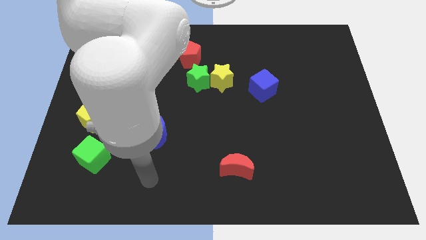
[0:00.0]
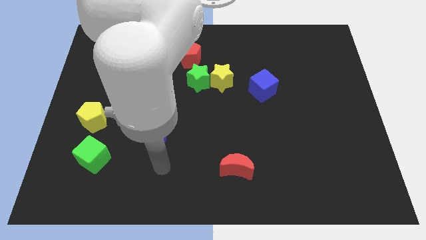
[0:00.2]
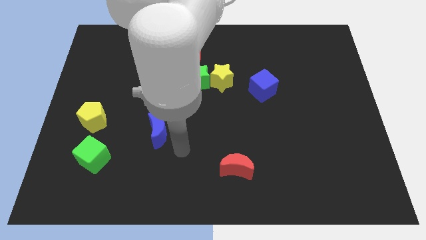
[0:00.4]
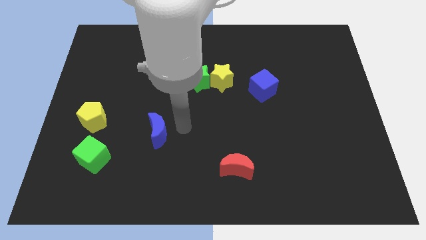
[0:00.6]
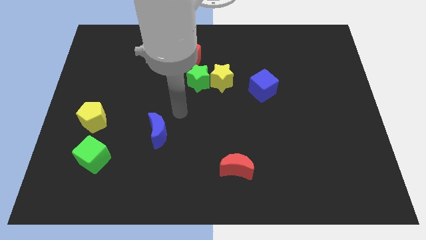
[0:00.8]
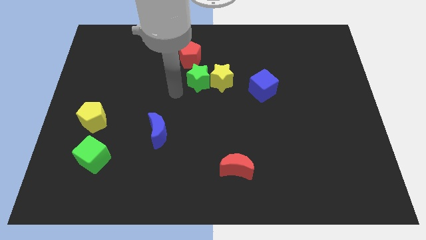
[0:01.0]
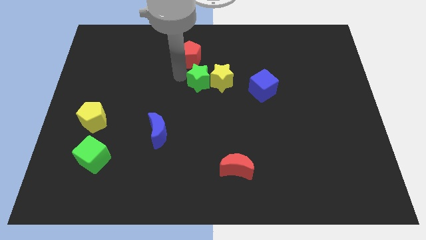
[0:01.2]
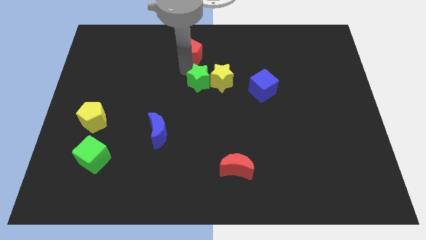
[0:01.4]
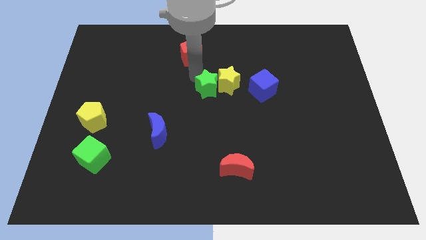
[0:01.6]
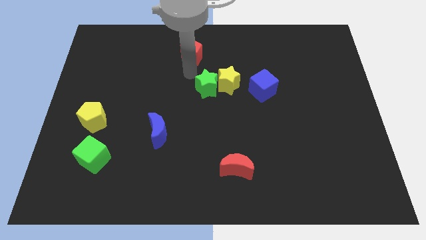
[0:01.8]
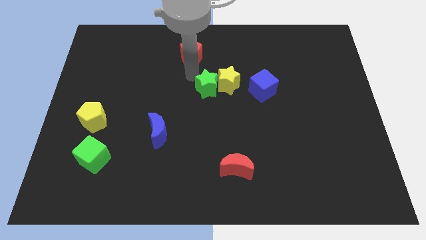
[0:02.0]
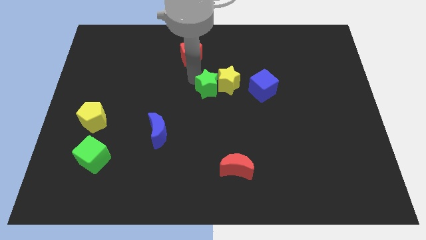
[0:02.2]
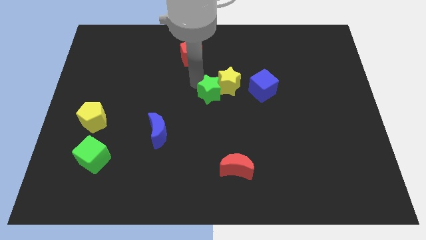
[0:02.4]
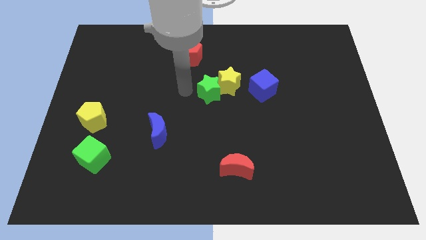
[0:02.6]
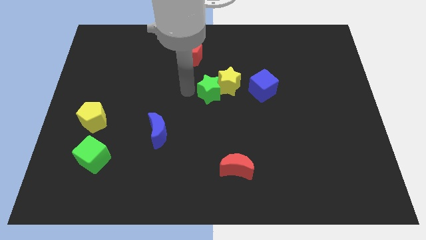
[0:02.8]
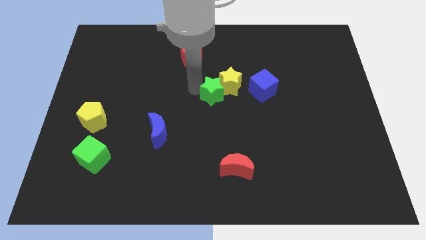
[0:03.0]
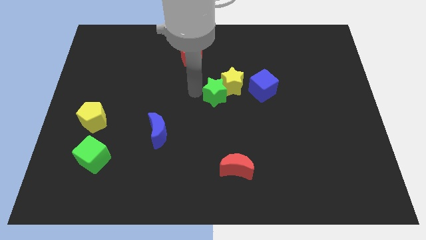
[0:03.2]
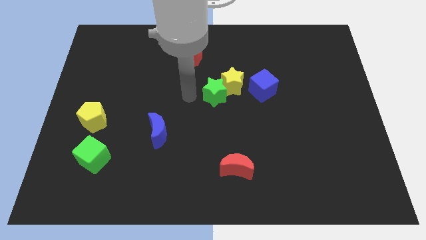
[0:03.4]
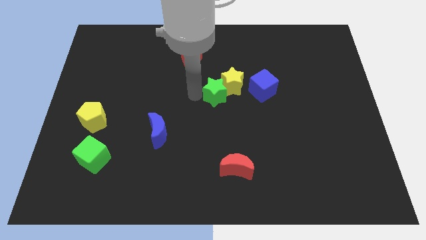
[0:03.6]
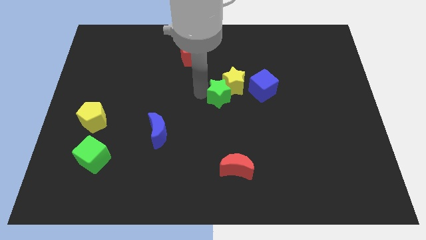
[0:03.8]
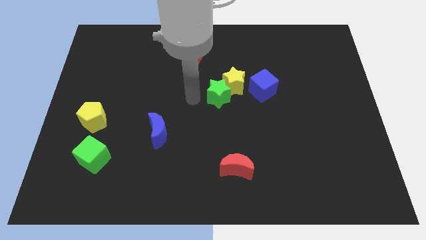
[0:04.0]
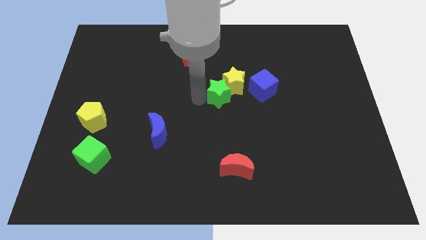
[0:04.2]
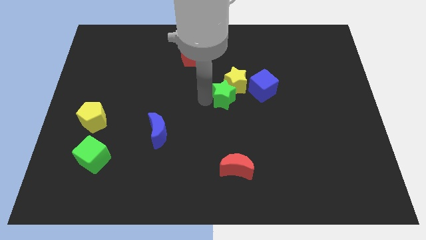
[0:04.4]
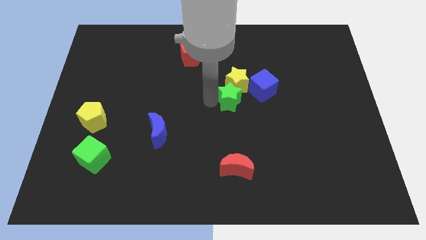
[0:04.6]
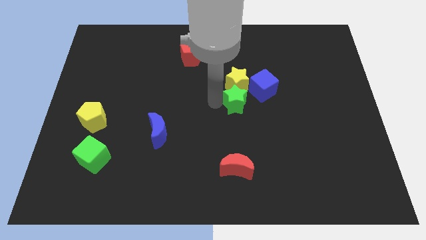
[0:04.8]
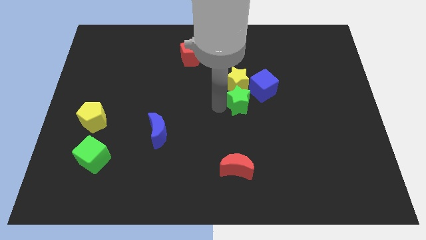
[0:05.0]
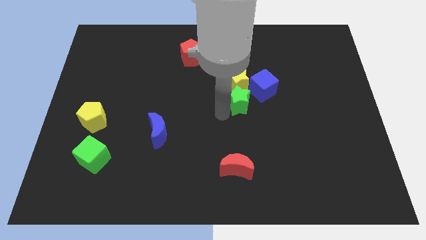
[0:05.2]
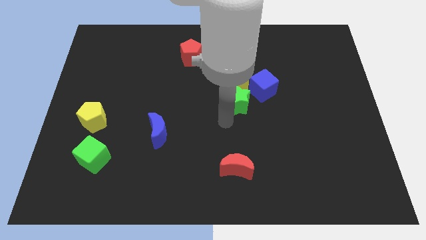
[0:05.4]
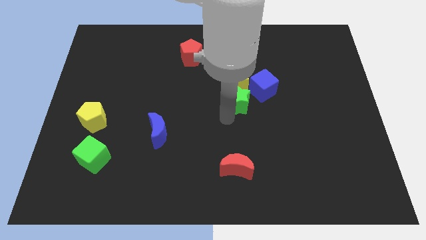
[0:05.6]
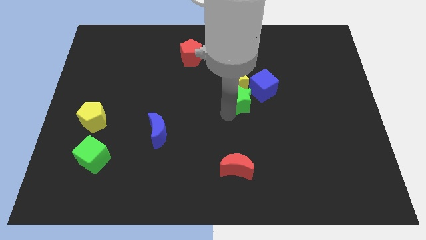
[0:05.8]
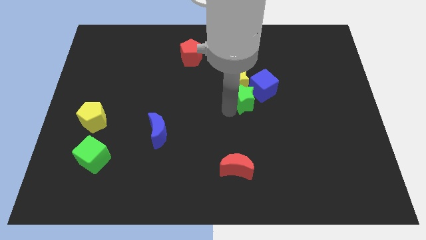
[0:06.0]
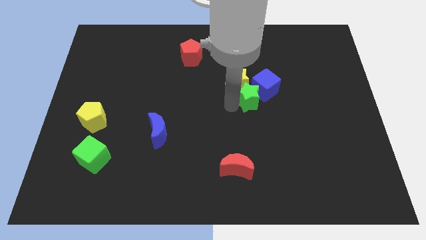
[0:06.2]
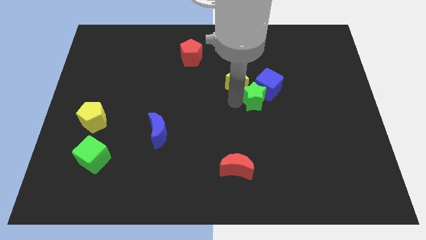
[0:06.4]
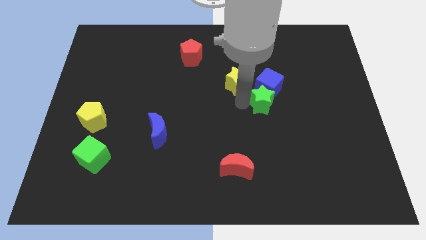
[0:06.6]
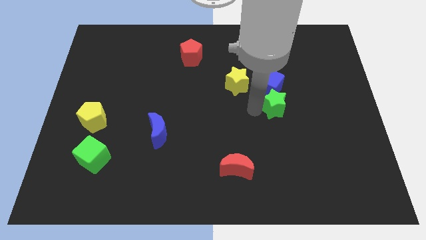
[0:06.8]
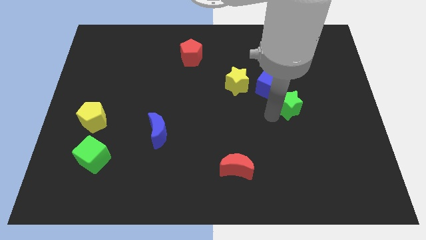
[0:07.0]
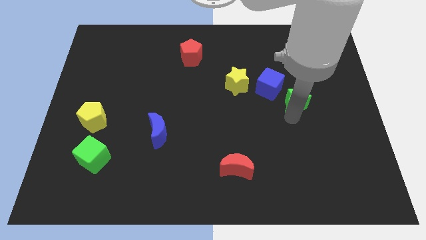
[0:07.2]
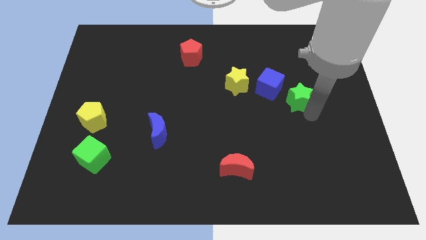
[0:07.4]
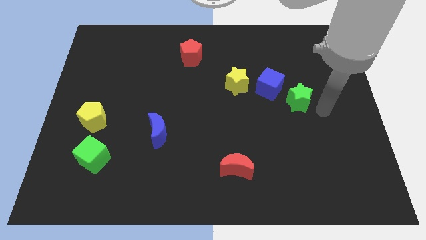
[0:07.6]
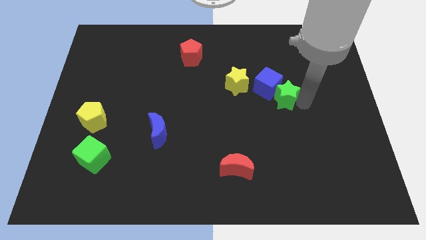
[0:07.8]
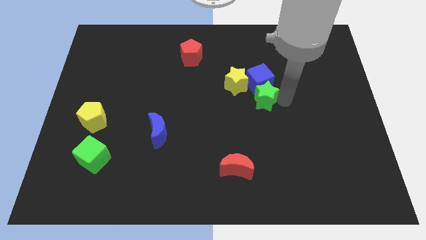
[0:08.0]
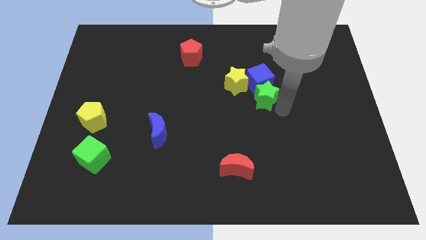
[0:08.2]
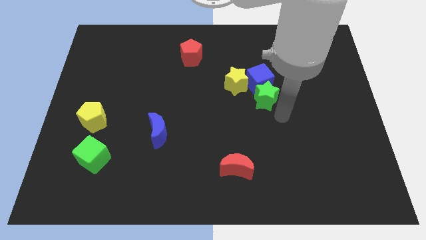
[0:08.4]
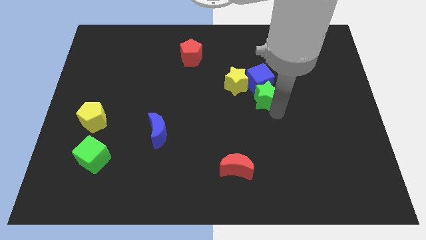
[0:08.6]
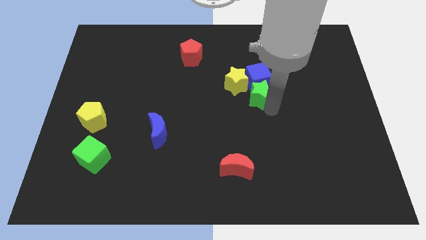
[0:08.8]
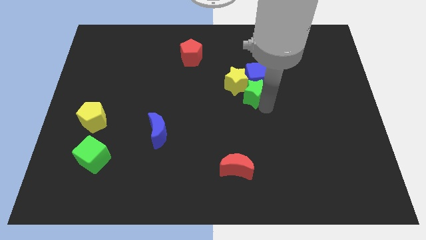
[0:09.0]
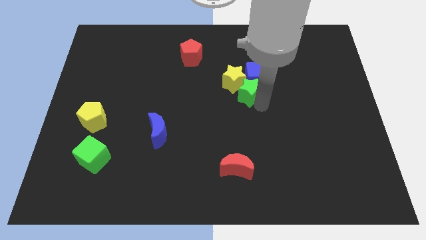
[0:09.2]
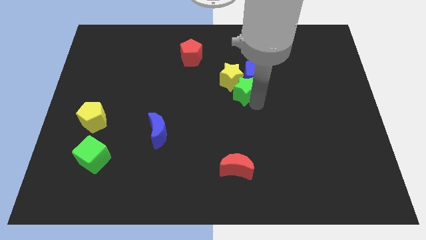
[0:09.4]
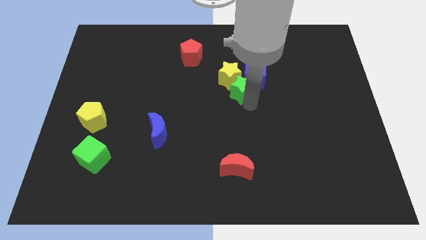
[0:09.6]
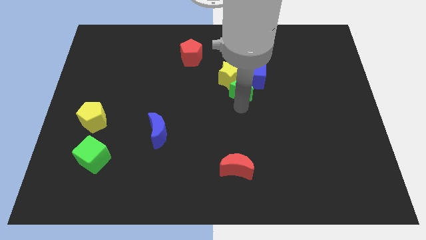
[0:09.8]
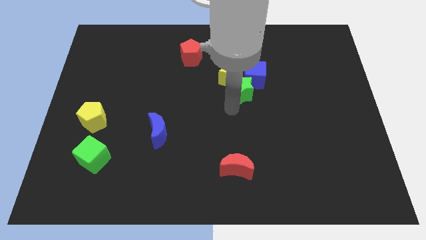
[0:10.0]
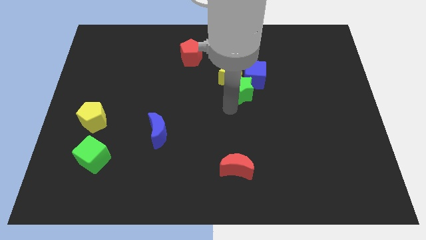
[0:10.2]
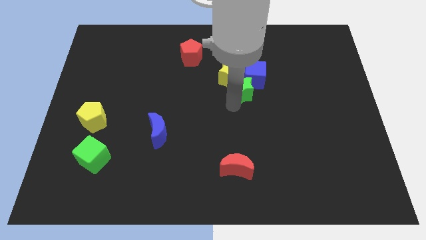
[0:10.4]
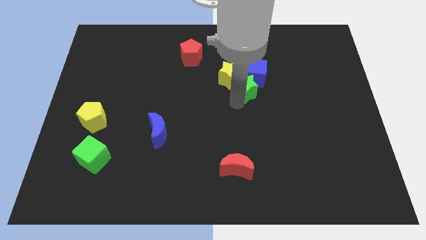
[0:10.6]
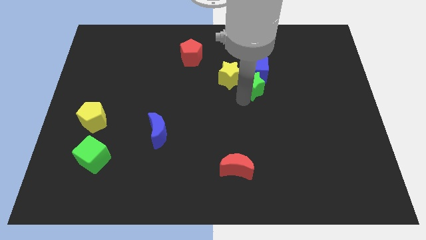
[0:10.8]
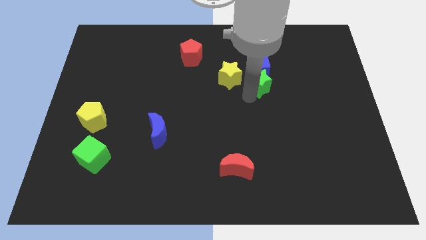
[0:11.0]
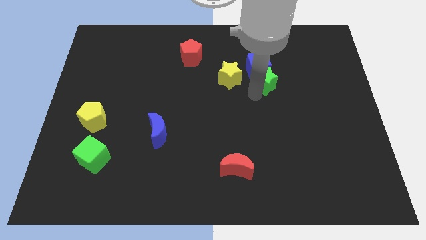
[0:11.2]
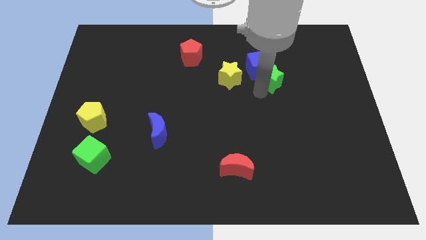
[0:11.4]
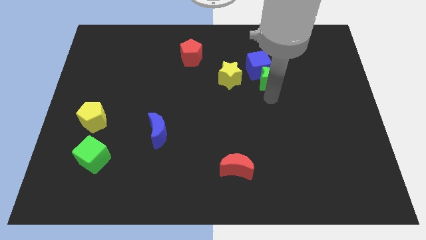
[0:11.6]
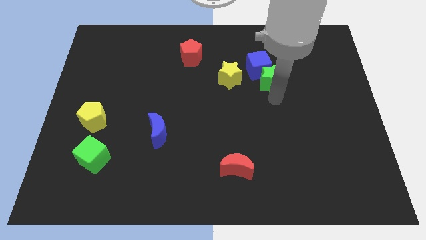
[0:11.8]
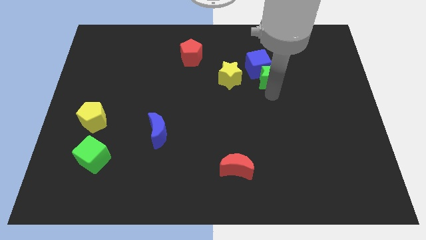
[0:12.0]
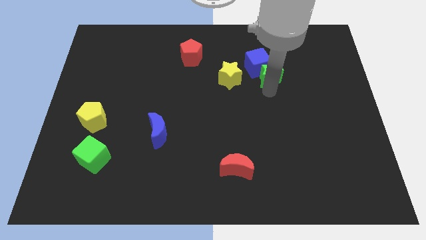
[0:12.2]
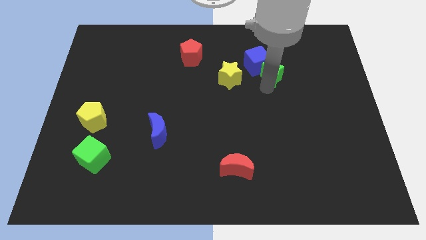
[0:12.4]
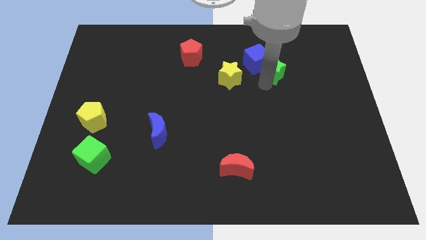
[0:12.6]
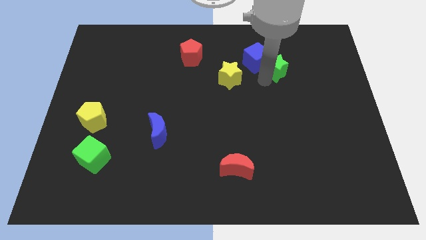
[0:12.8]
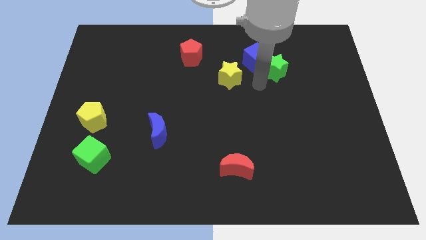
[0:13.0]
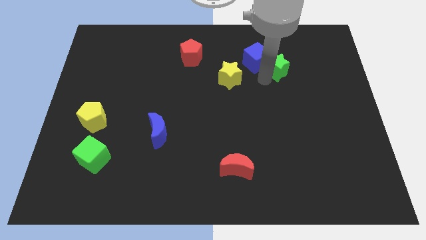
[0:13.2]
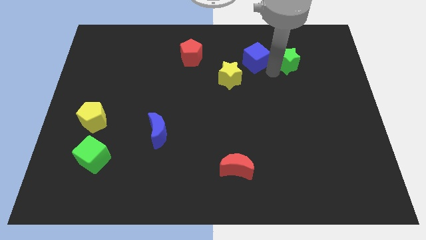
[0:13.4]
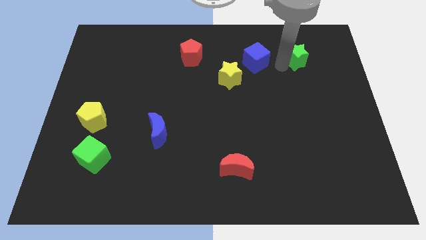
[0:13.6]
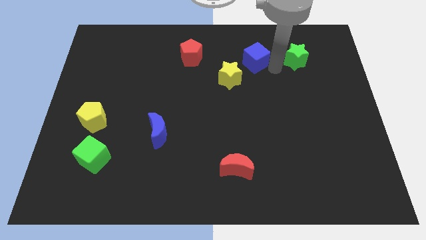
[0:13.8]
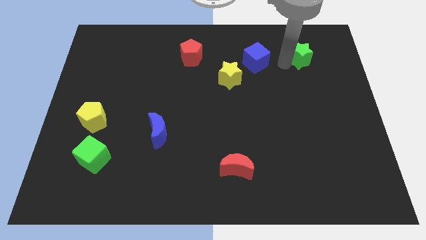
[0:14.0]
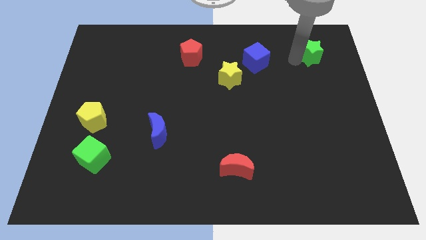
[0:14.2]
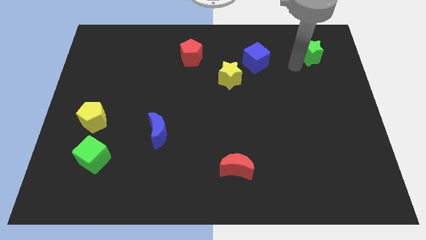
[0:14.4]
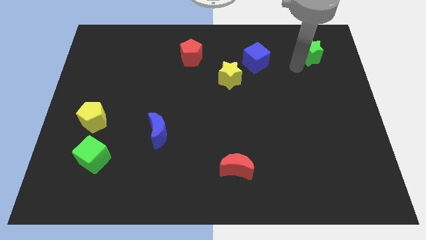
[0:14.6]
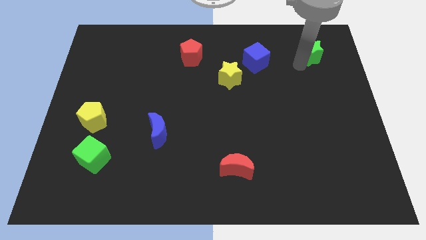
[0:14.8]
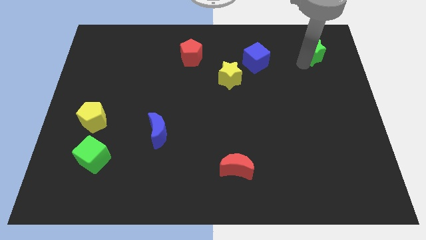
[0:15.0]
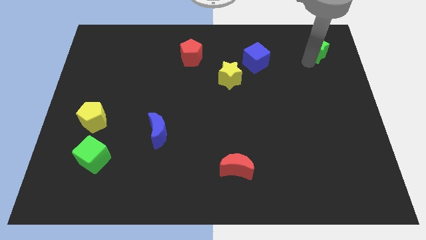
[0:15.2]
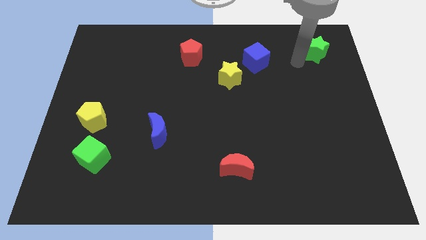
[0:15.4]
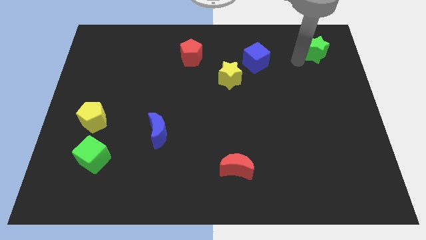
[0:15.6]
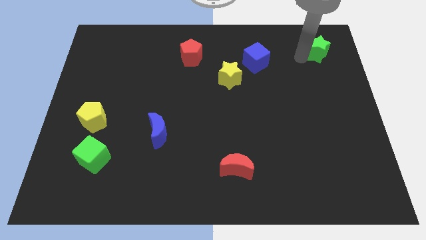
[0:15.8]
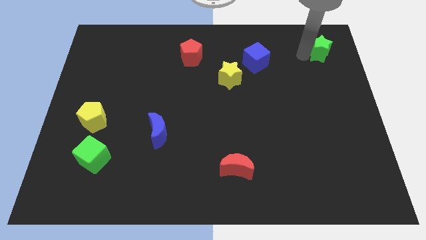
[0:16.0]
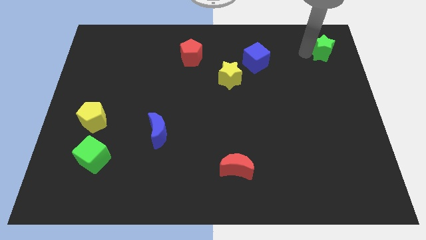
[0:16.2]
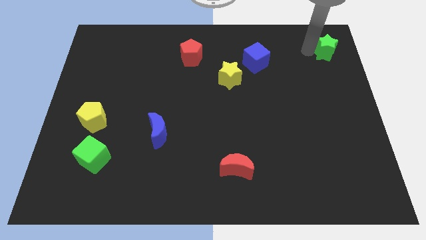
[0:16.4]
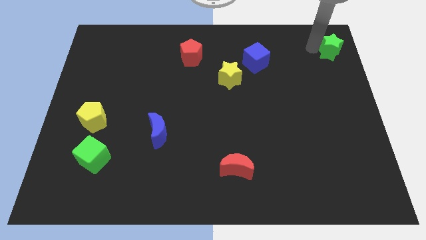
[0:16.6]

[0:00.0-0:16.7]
slide the green star to the upper right corner
